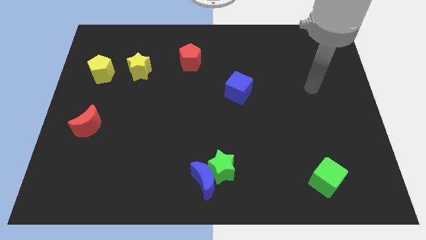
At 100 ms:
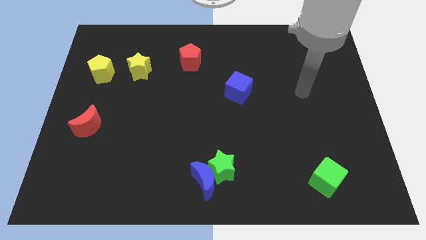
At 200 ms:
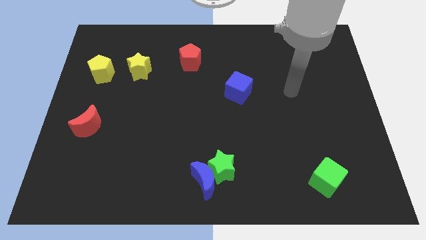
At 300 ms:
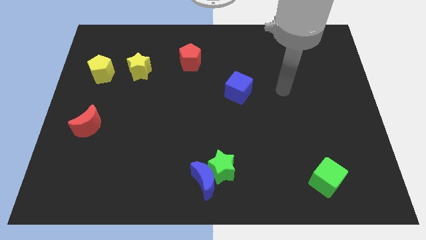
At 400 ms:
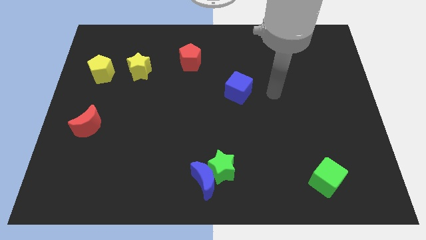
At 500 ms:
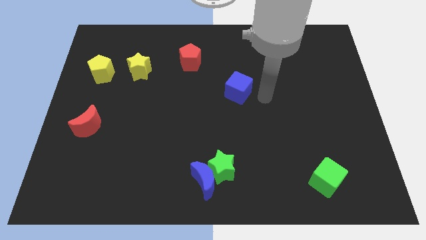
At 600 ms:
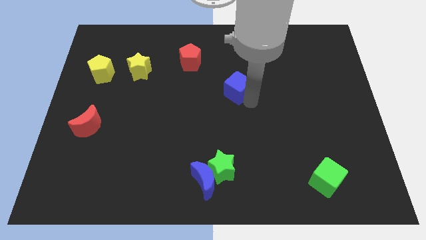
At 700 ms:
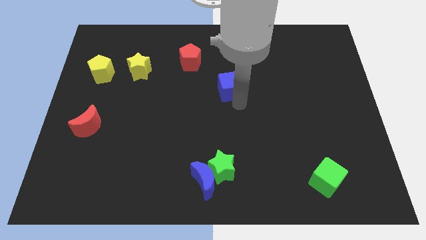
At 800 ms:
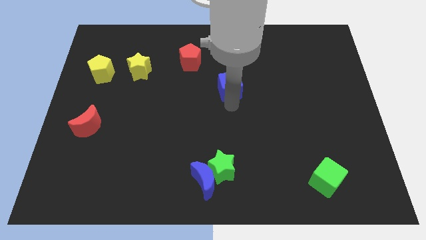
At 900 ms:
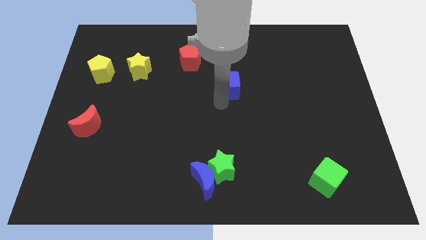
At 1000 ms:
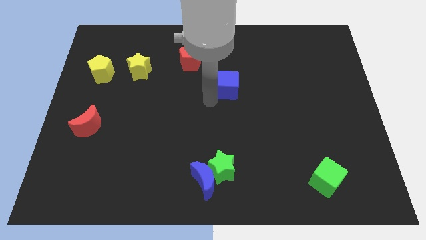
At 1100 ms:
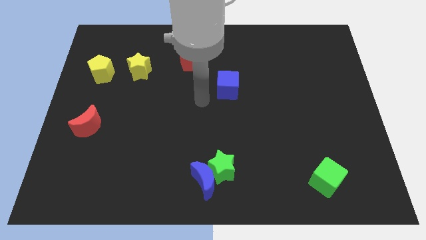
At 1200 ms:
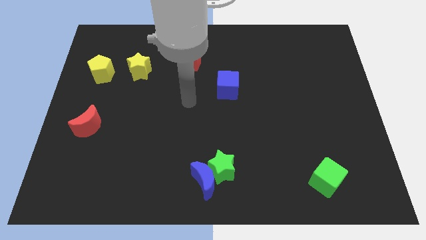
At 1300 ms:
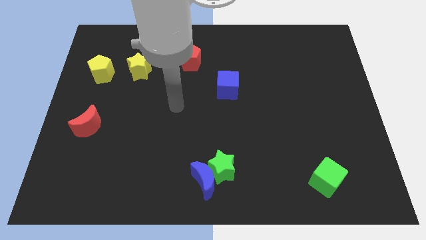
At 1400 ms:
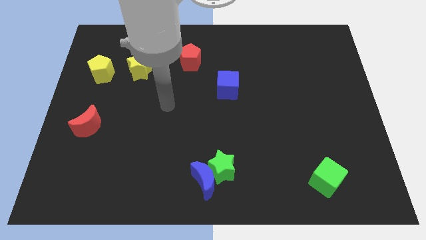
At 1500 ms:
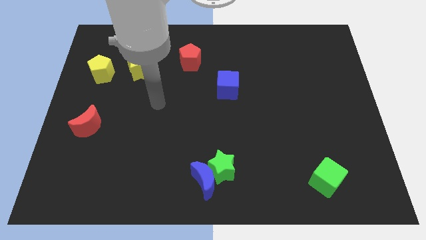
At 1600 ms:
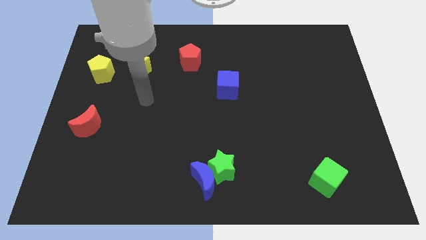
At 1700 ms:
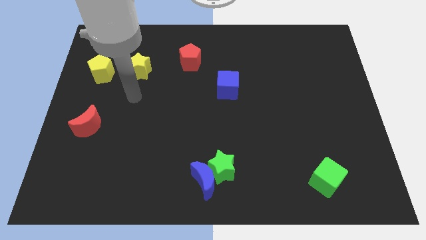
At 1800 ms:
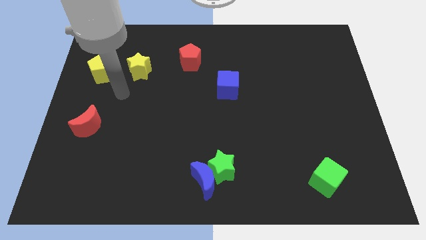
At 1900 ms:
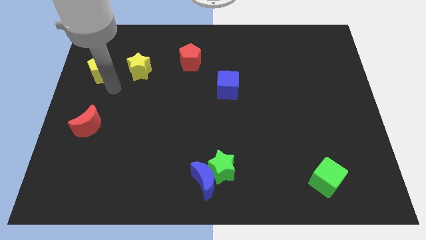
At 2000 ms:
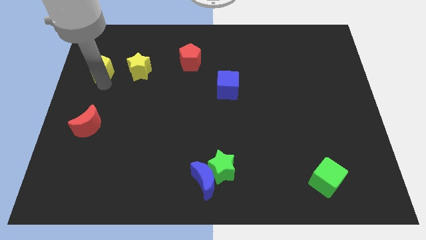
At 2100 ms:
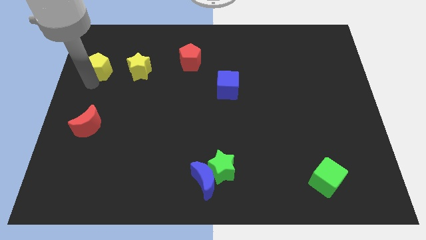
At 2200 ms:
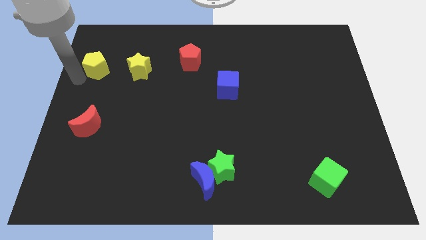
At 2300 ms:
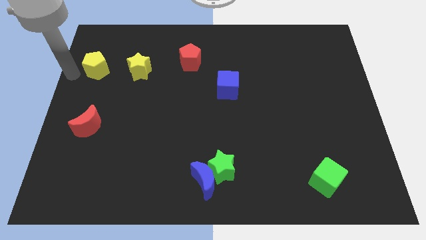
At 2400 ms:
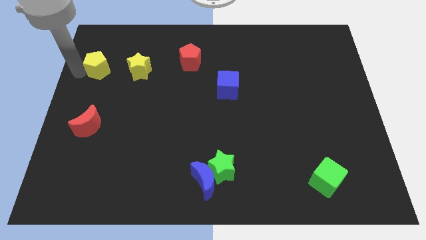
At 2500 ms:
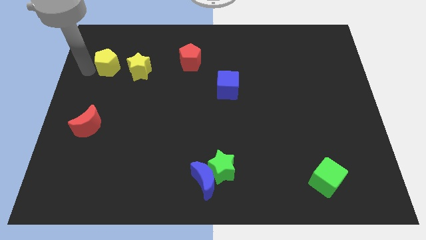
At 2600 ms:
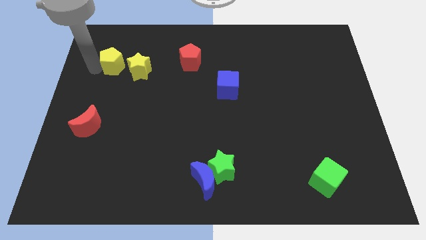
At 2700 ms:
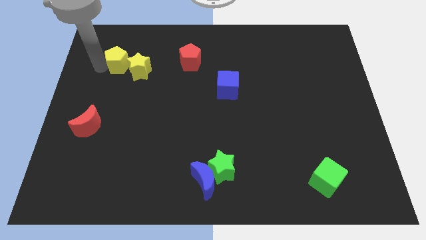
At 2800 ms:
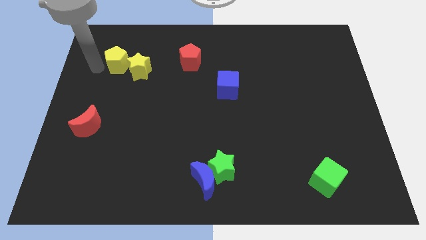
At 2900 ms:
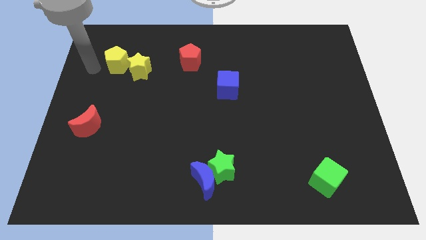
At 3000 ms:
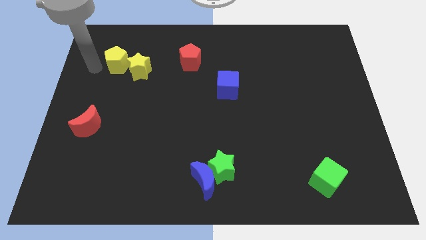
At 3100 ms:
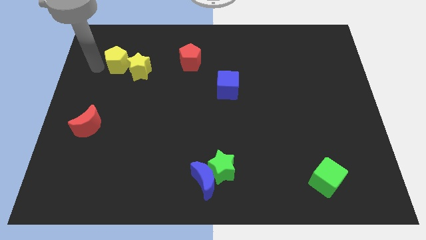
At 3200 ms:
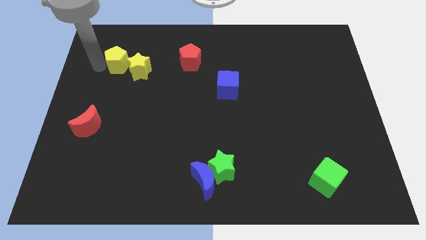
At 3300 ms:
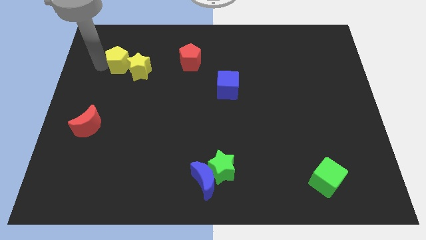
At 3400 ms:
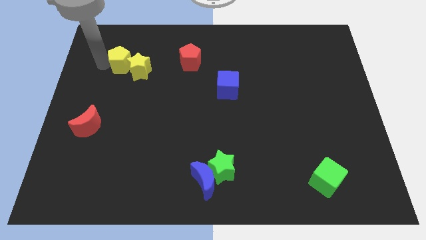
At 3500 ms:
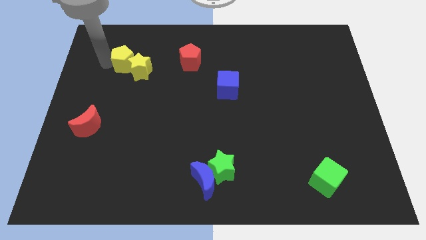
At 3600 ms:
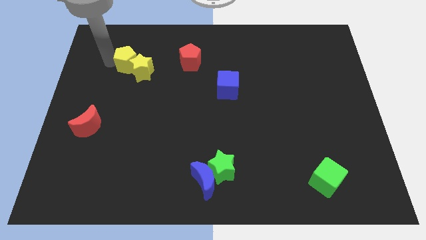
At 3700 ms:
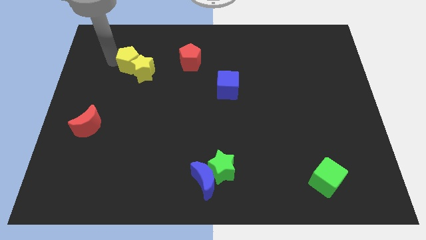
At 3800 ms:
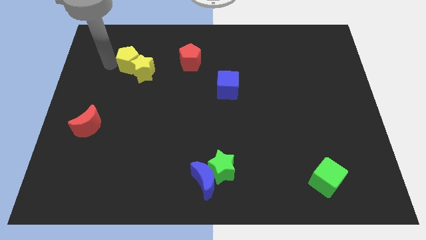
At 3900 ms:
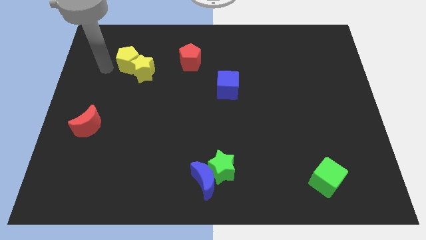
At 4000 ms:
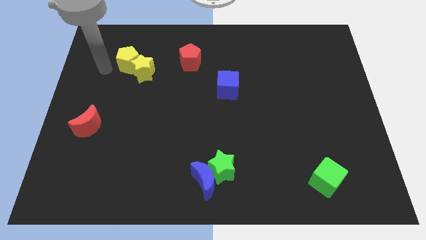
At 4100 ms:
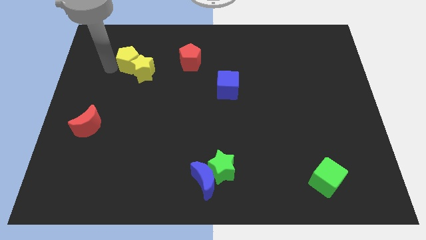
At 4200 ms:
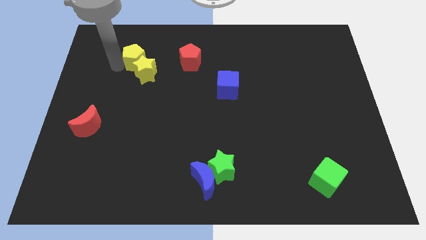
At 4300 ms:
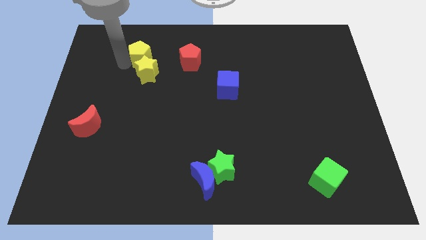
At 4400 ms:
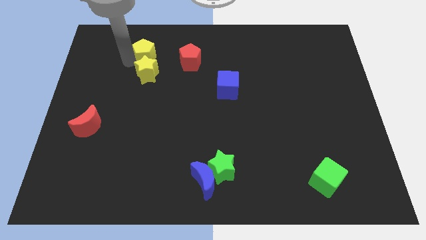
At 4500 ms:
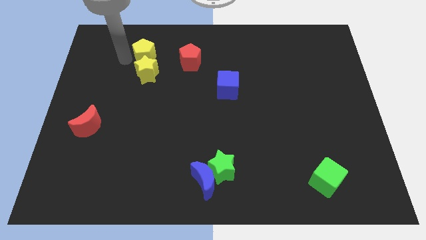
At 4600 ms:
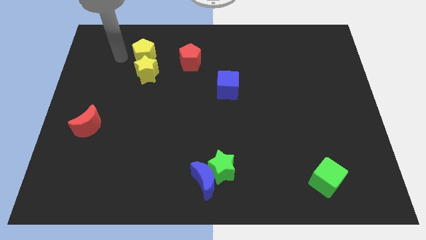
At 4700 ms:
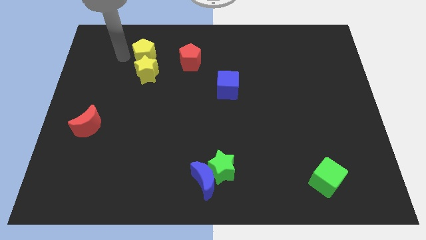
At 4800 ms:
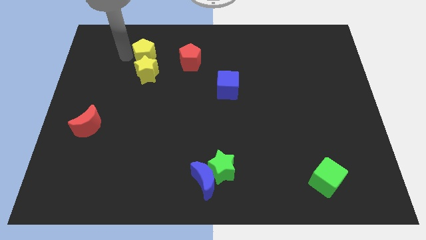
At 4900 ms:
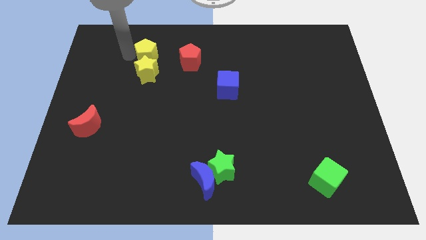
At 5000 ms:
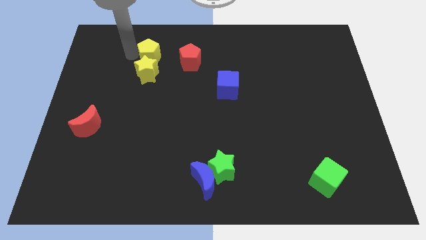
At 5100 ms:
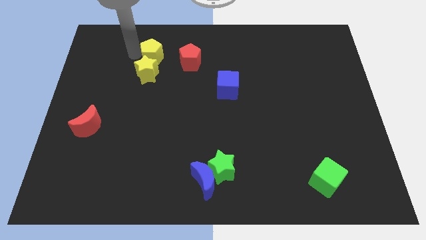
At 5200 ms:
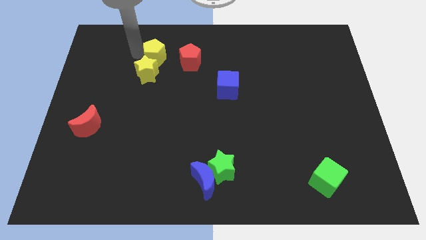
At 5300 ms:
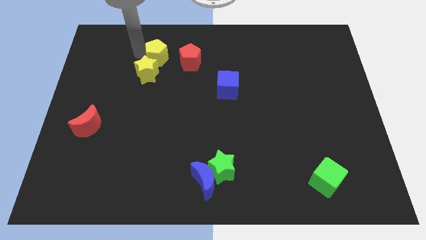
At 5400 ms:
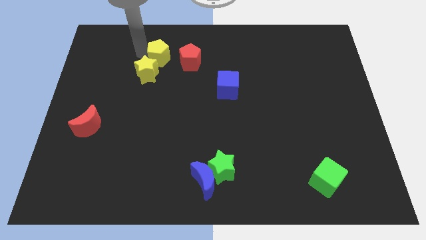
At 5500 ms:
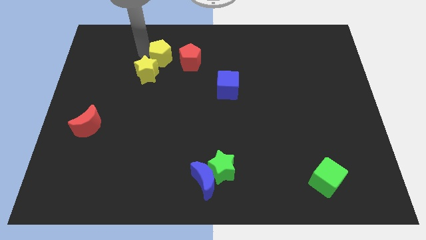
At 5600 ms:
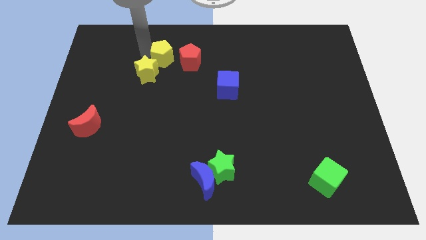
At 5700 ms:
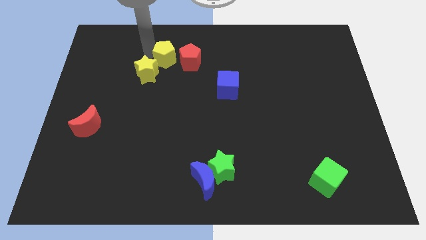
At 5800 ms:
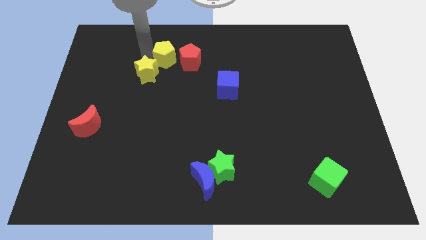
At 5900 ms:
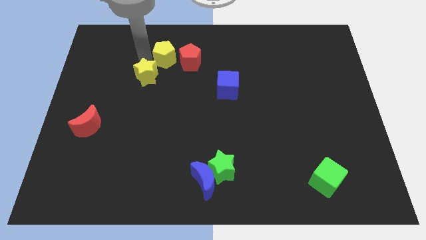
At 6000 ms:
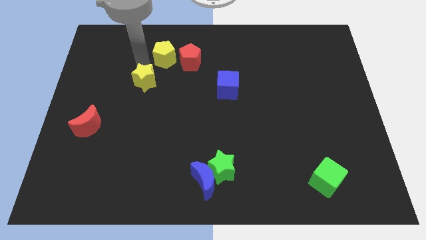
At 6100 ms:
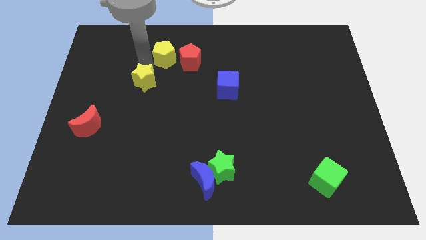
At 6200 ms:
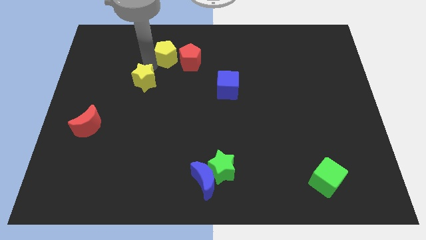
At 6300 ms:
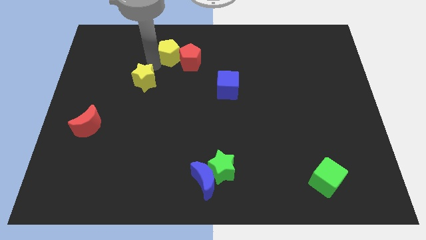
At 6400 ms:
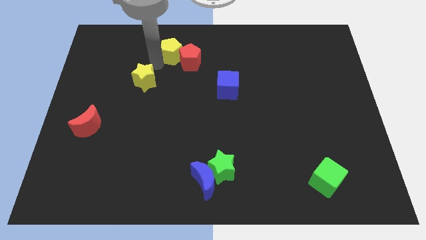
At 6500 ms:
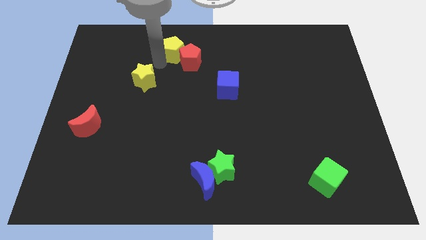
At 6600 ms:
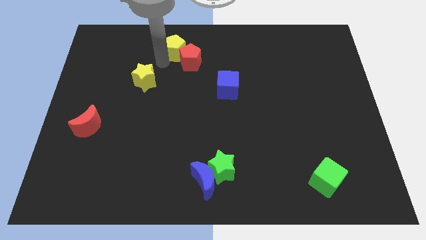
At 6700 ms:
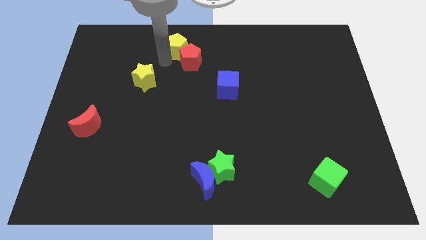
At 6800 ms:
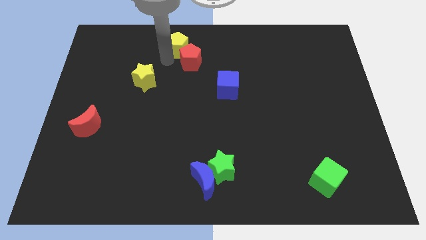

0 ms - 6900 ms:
push the yellow pentagon to the towards your base
